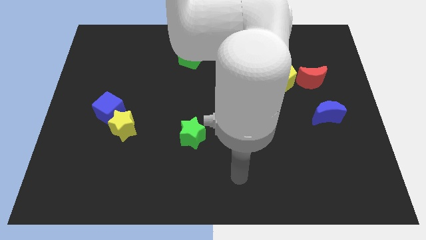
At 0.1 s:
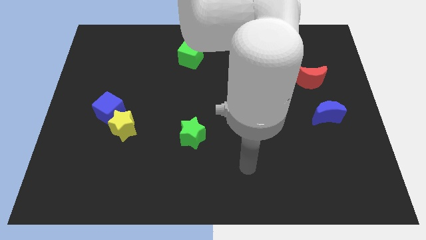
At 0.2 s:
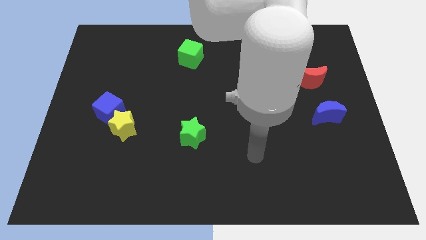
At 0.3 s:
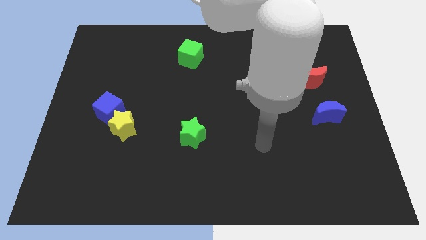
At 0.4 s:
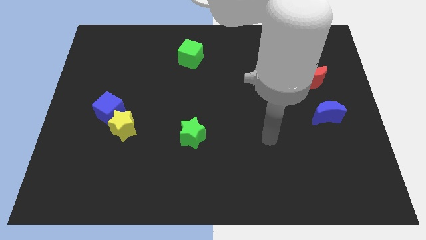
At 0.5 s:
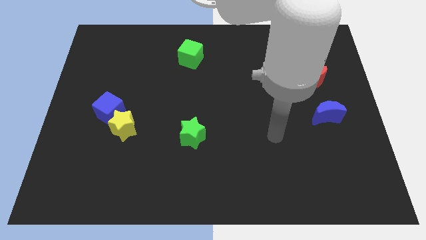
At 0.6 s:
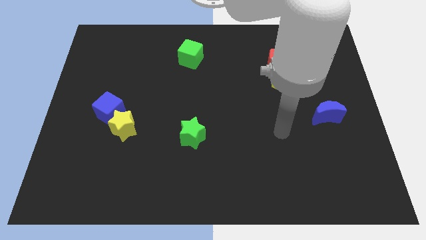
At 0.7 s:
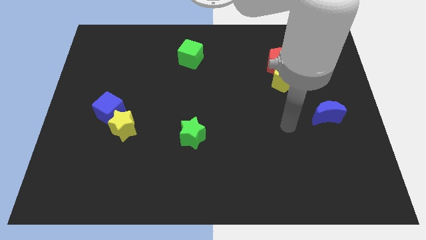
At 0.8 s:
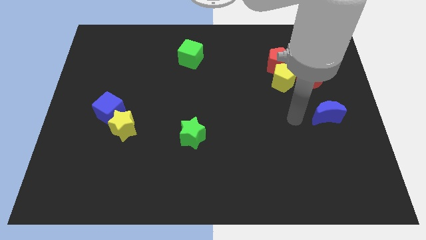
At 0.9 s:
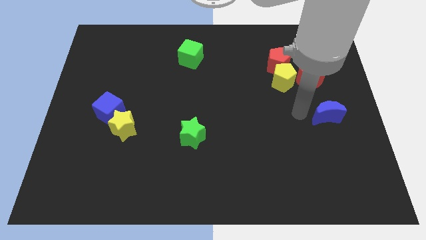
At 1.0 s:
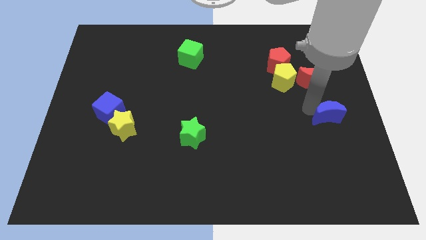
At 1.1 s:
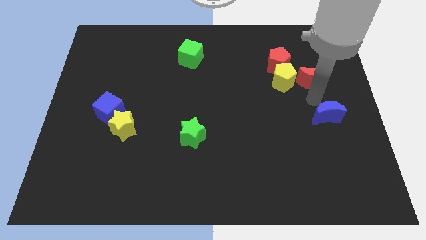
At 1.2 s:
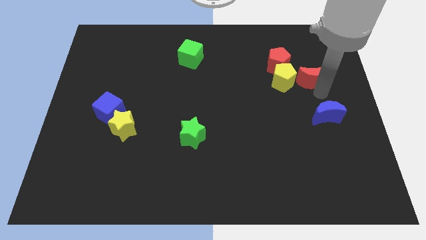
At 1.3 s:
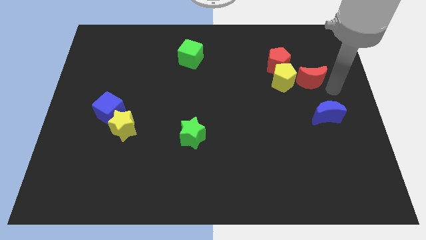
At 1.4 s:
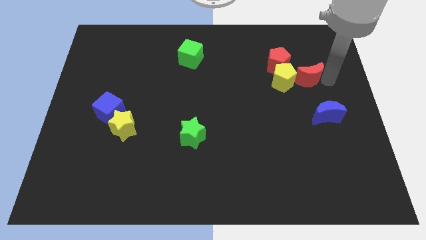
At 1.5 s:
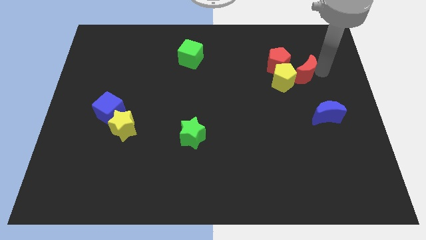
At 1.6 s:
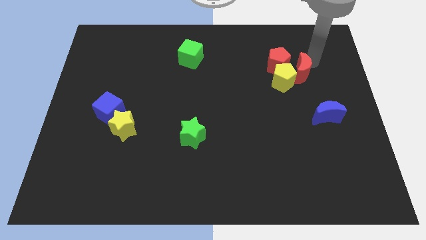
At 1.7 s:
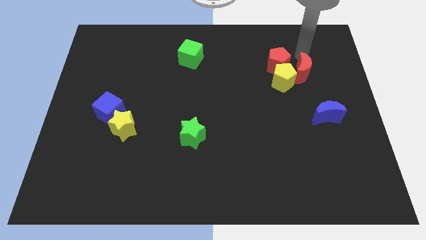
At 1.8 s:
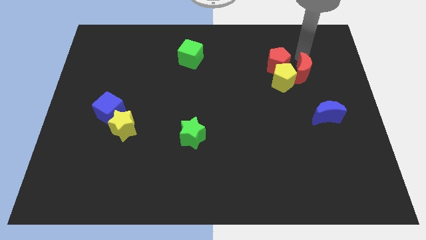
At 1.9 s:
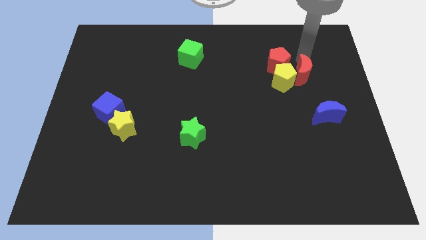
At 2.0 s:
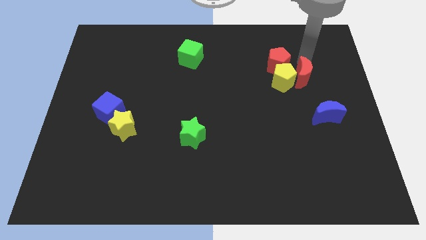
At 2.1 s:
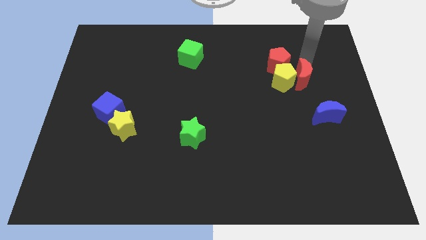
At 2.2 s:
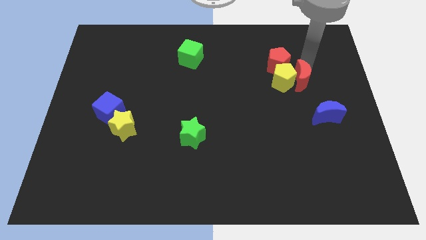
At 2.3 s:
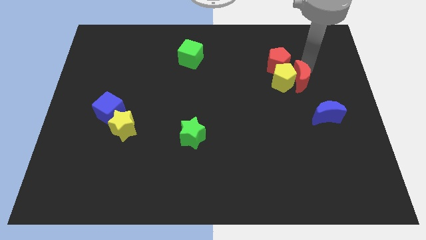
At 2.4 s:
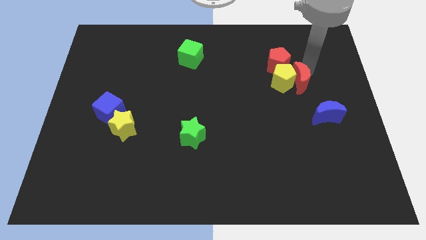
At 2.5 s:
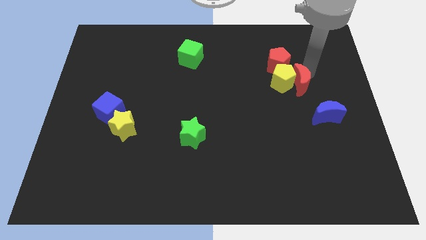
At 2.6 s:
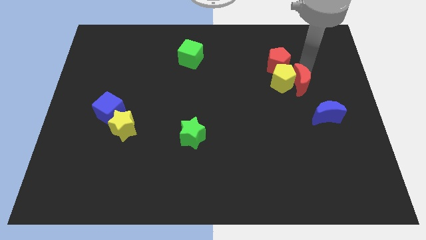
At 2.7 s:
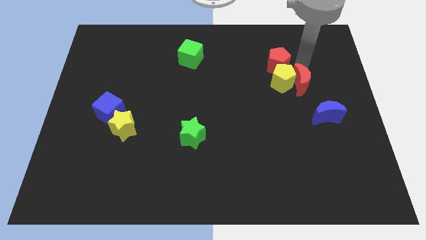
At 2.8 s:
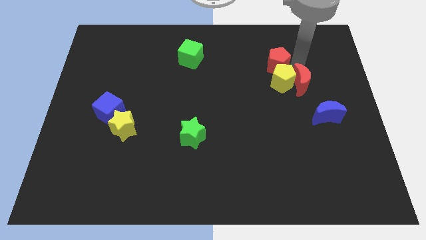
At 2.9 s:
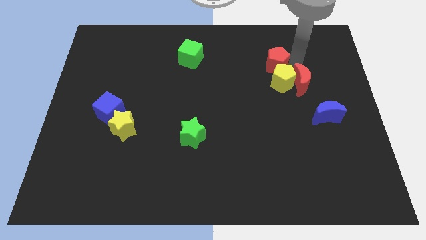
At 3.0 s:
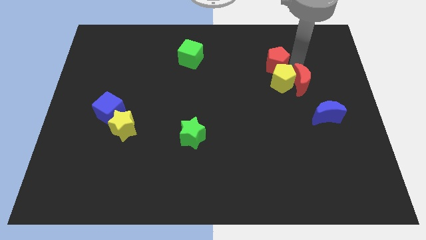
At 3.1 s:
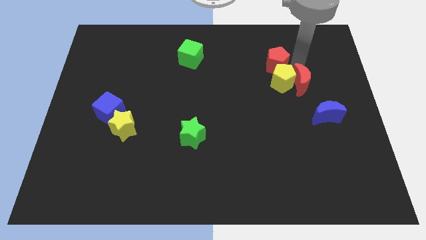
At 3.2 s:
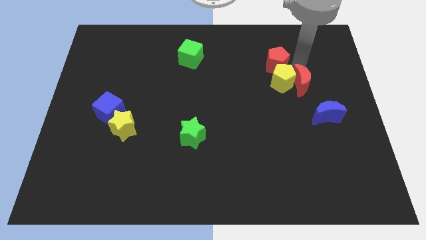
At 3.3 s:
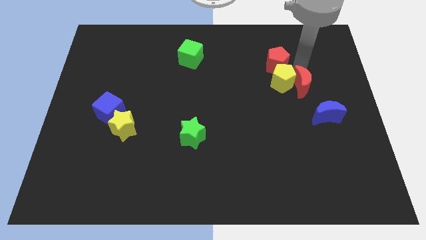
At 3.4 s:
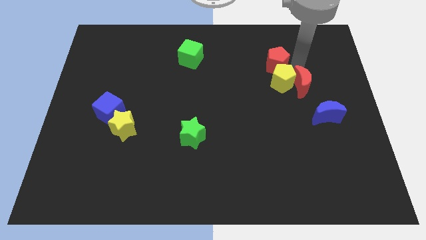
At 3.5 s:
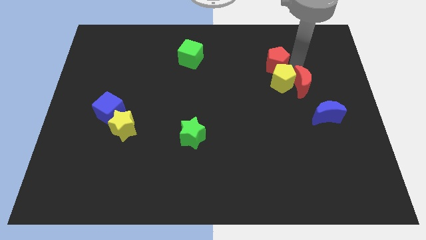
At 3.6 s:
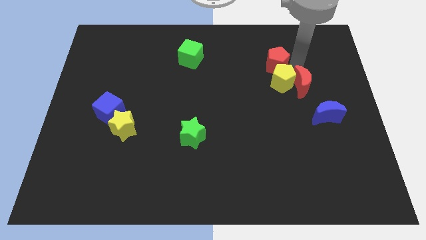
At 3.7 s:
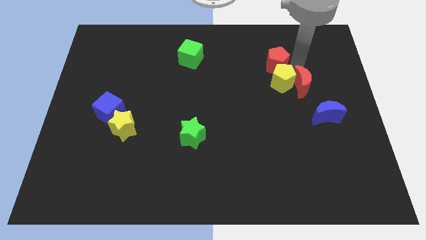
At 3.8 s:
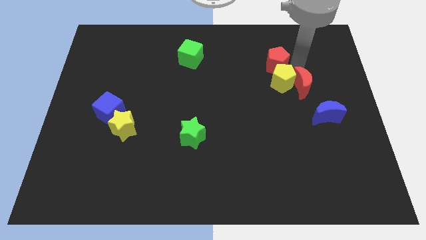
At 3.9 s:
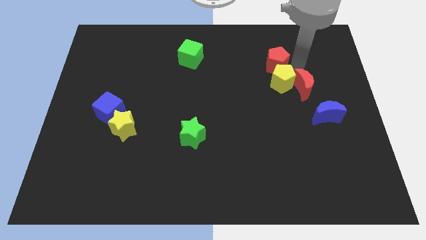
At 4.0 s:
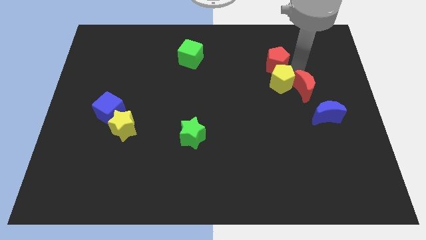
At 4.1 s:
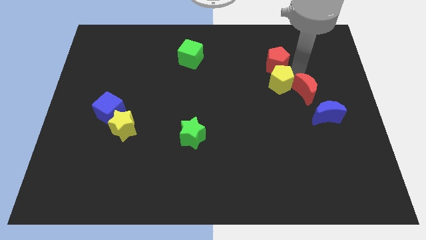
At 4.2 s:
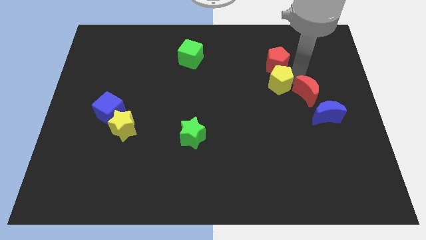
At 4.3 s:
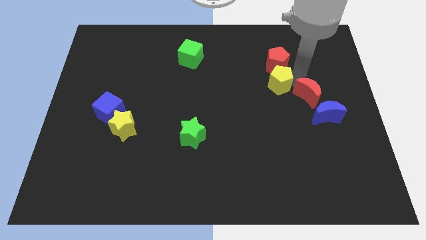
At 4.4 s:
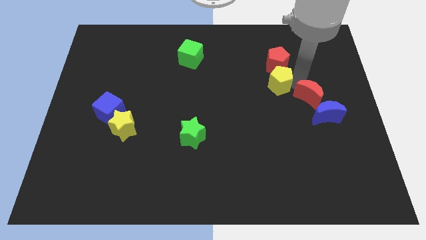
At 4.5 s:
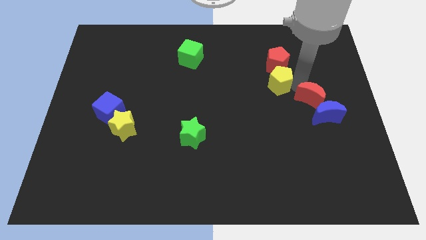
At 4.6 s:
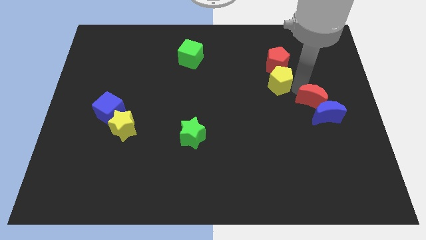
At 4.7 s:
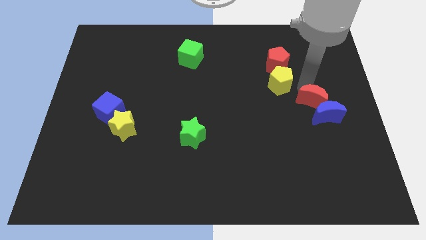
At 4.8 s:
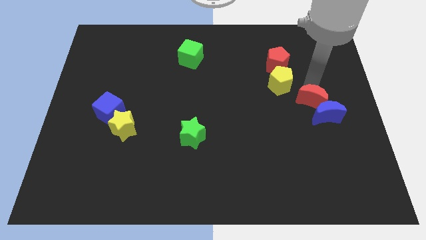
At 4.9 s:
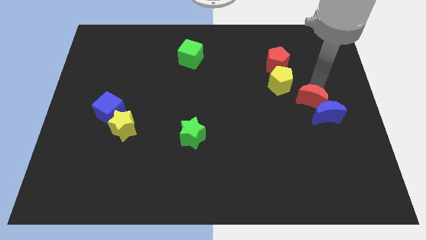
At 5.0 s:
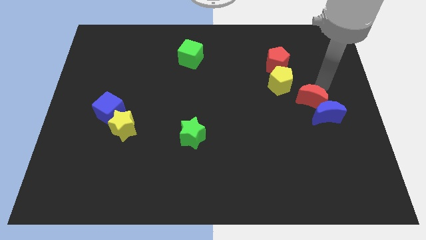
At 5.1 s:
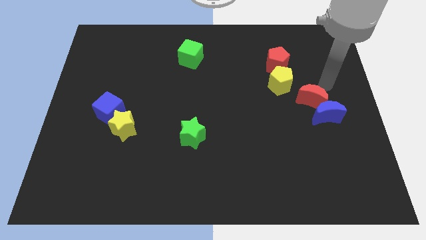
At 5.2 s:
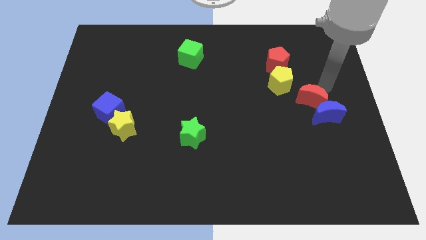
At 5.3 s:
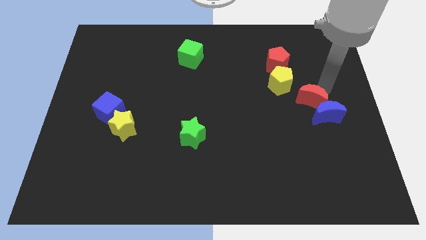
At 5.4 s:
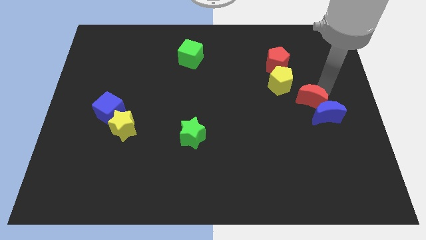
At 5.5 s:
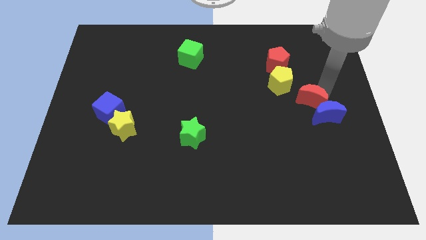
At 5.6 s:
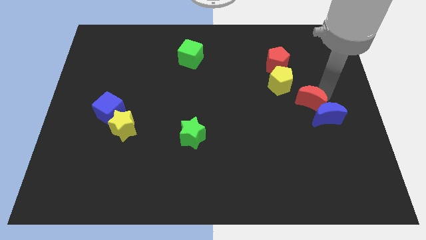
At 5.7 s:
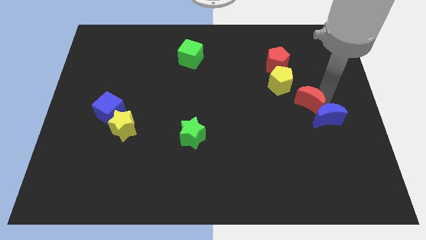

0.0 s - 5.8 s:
slightly move the red moon downwards

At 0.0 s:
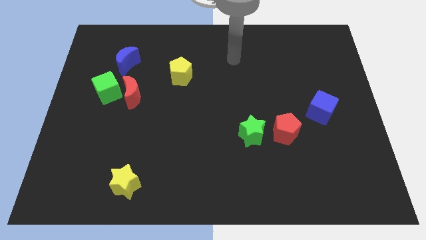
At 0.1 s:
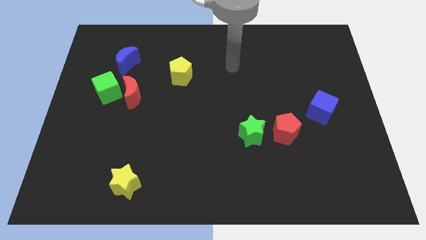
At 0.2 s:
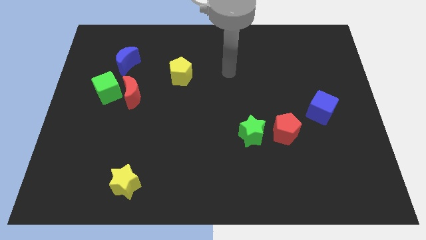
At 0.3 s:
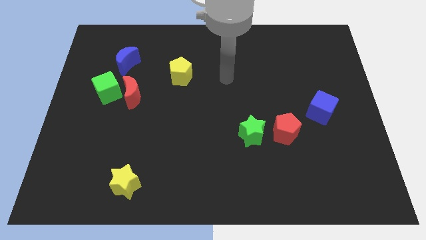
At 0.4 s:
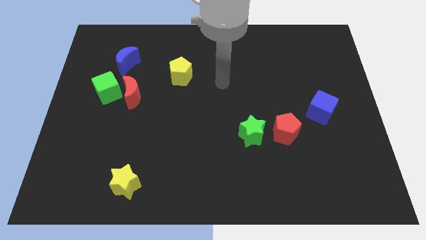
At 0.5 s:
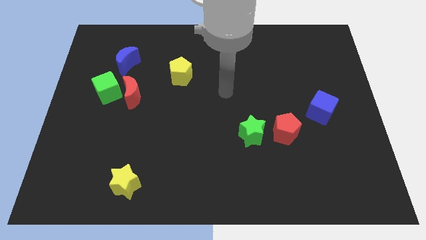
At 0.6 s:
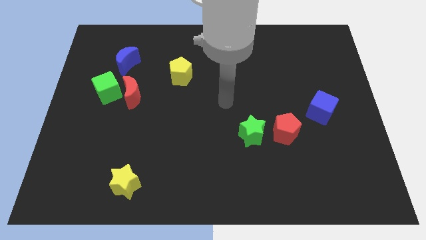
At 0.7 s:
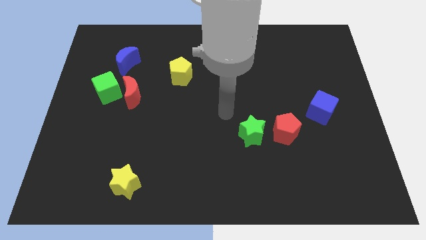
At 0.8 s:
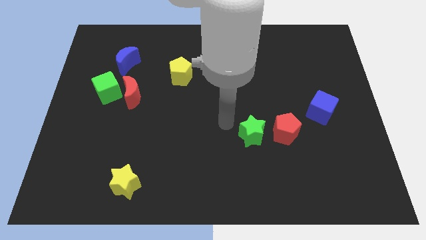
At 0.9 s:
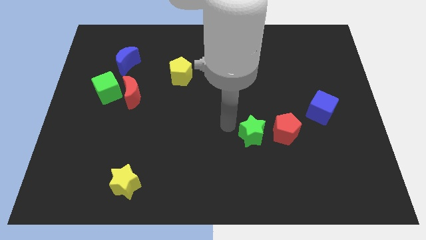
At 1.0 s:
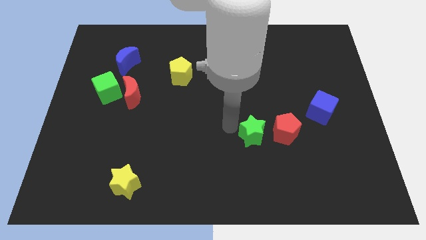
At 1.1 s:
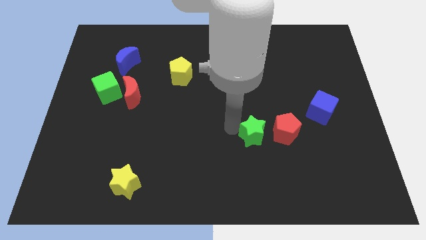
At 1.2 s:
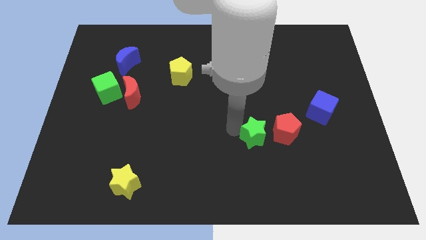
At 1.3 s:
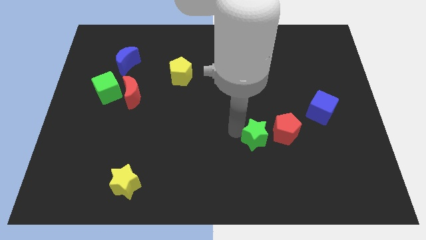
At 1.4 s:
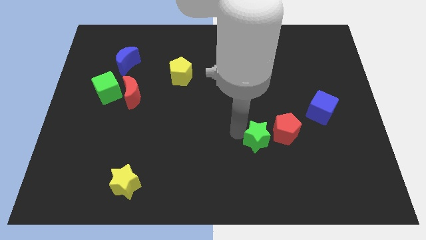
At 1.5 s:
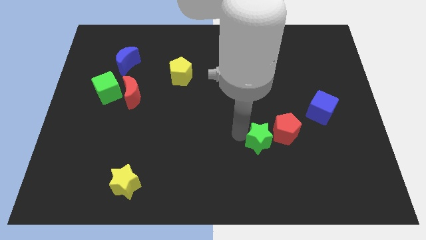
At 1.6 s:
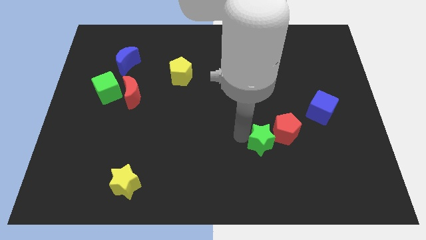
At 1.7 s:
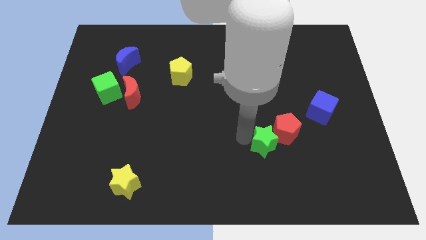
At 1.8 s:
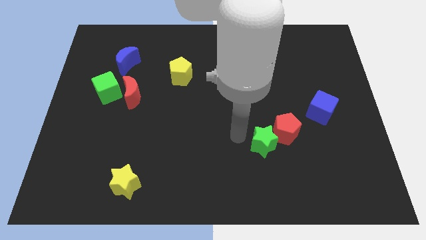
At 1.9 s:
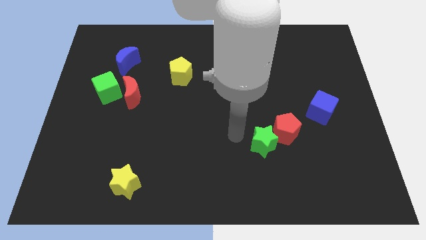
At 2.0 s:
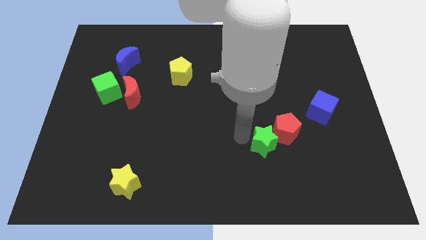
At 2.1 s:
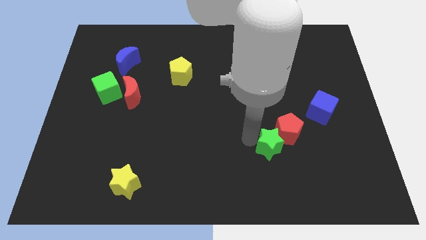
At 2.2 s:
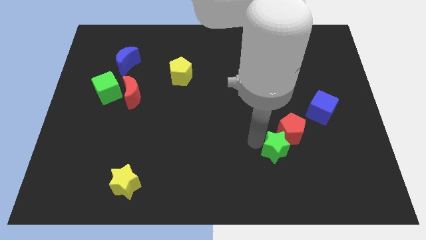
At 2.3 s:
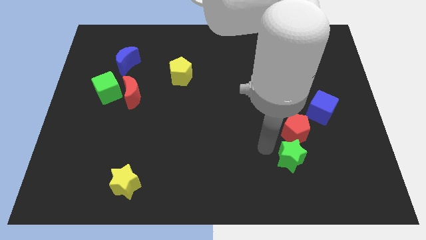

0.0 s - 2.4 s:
slightly push the green star right

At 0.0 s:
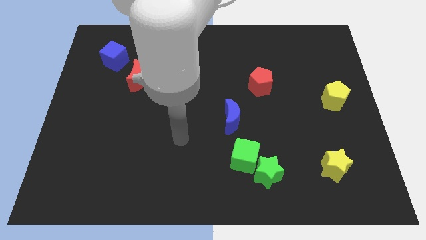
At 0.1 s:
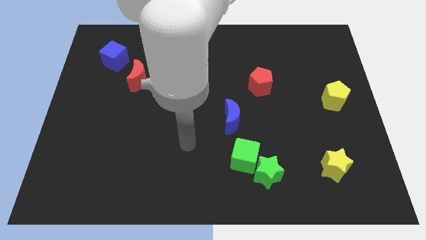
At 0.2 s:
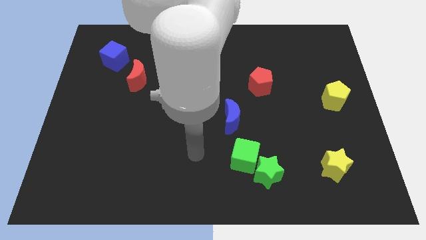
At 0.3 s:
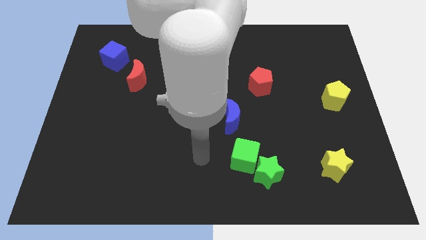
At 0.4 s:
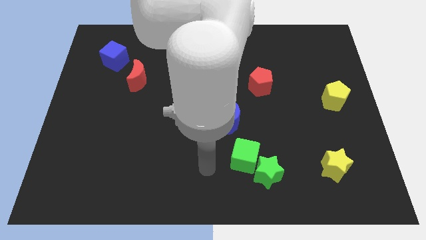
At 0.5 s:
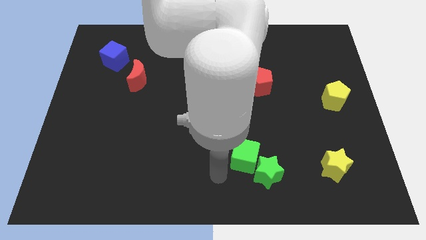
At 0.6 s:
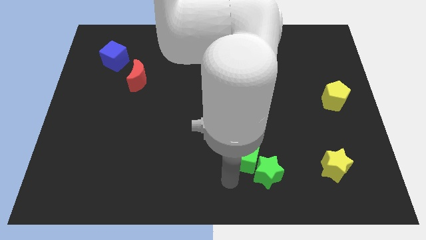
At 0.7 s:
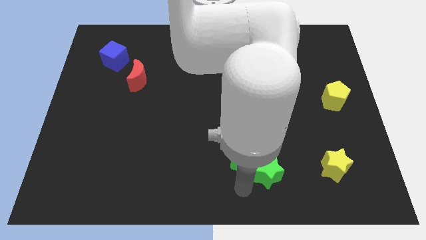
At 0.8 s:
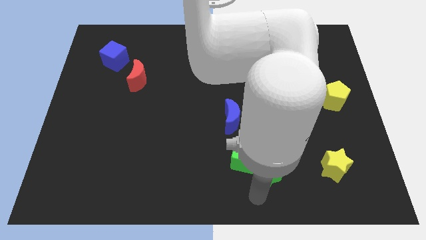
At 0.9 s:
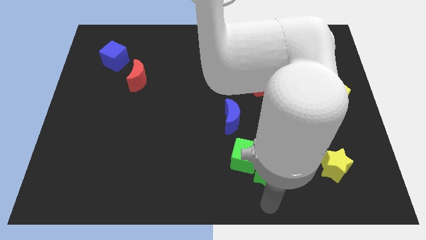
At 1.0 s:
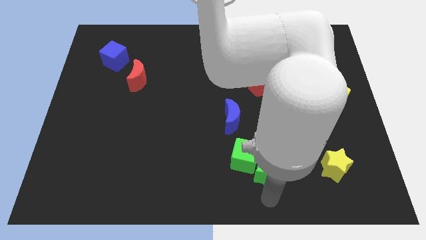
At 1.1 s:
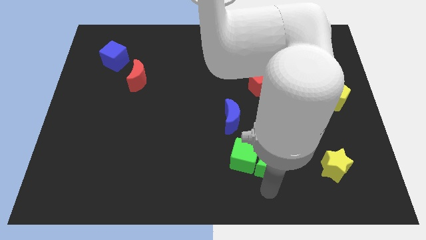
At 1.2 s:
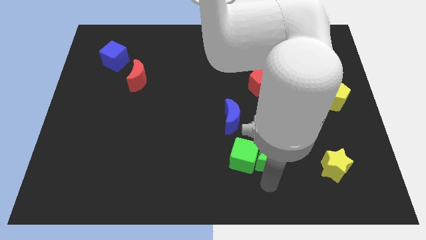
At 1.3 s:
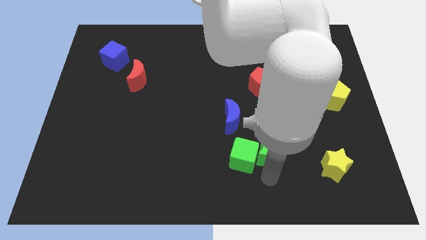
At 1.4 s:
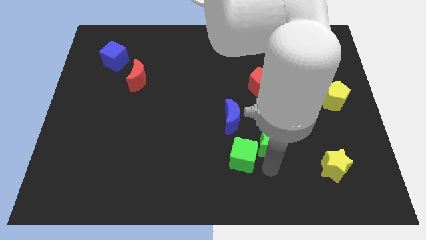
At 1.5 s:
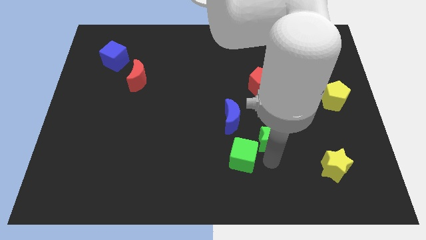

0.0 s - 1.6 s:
slide the green star a bit up
